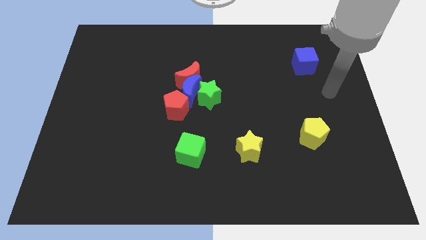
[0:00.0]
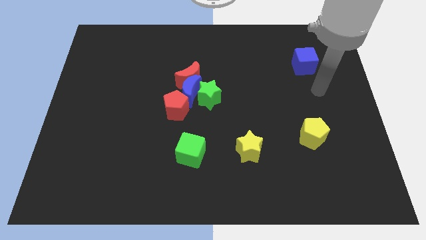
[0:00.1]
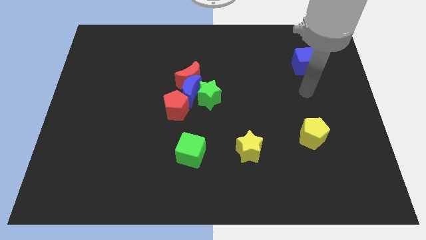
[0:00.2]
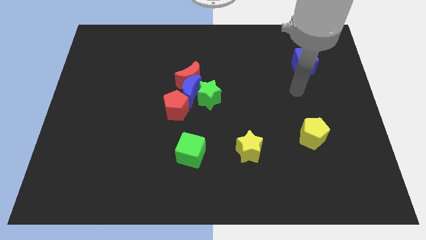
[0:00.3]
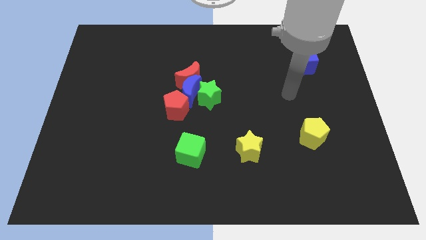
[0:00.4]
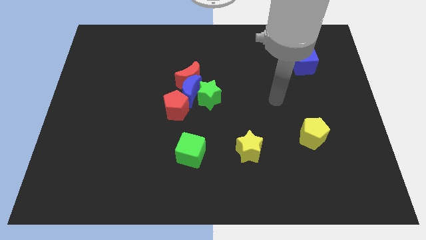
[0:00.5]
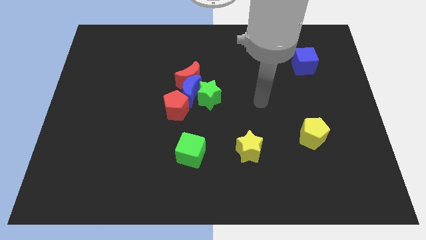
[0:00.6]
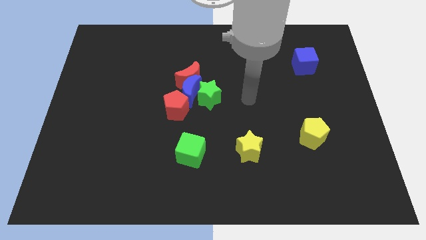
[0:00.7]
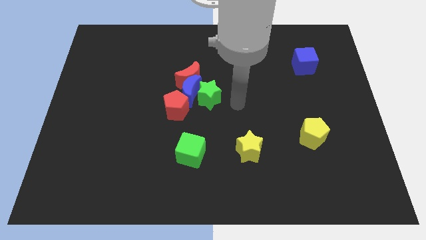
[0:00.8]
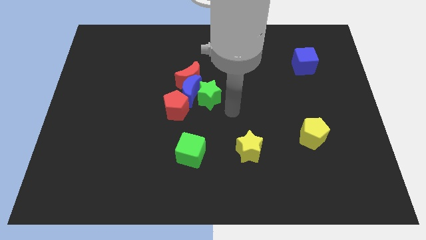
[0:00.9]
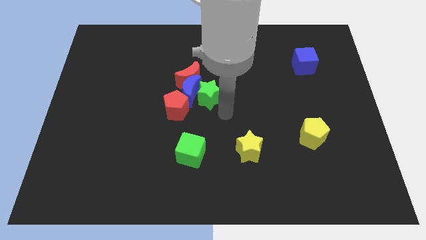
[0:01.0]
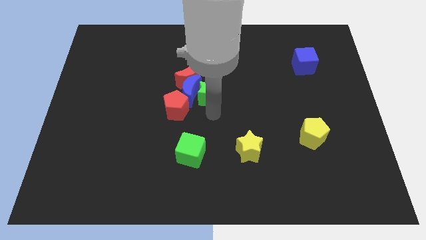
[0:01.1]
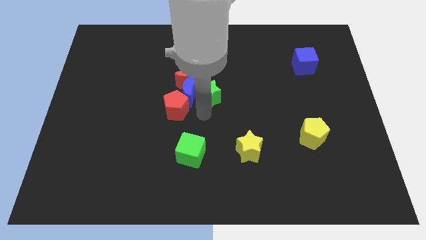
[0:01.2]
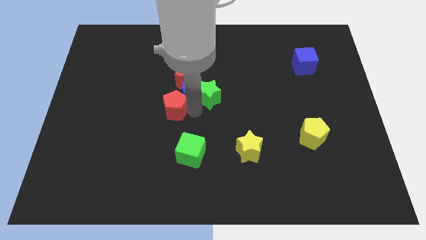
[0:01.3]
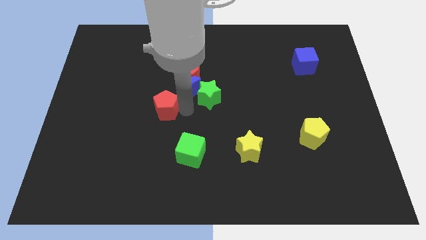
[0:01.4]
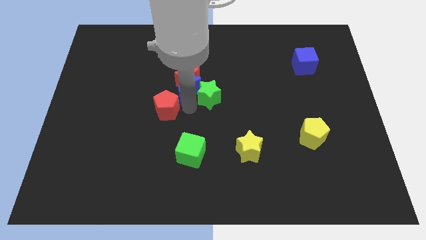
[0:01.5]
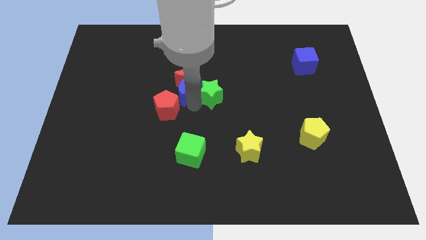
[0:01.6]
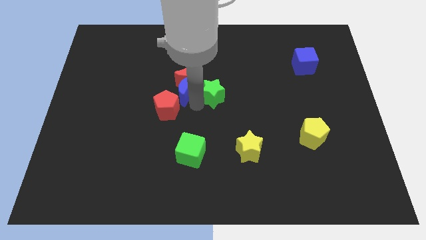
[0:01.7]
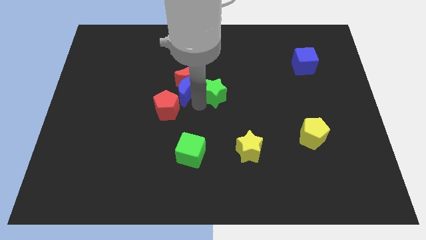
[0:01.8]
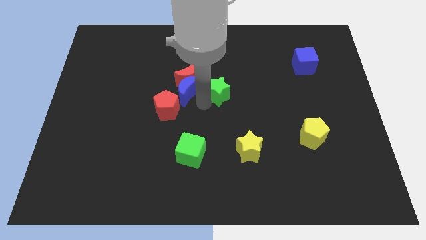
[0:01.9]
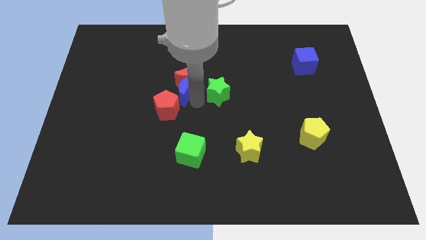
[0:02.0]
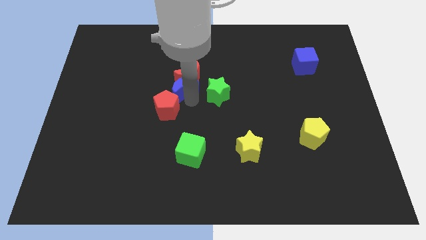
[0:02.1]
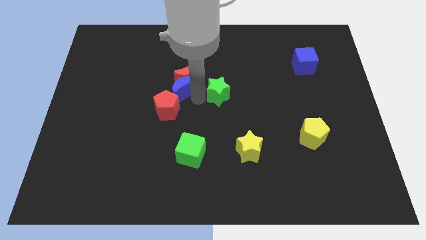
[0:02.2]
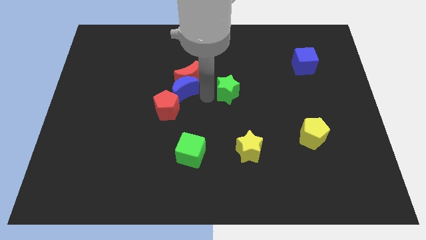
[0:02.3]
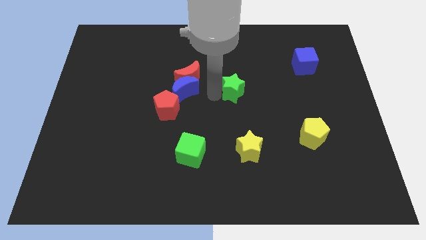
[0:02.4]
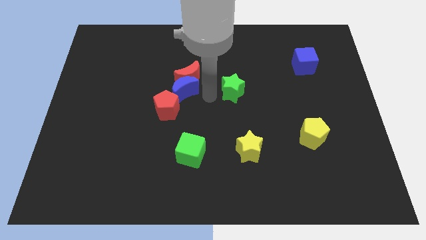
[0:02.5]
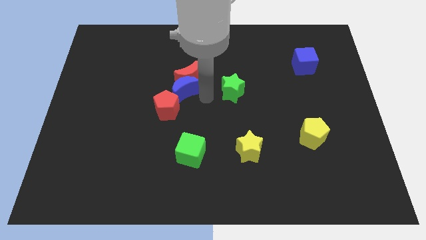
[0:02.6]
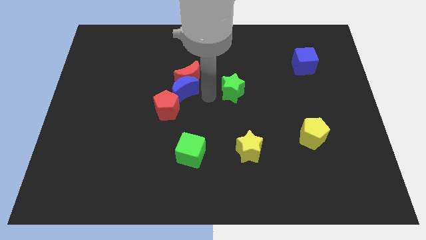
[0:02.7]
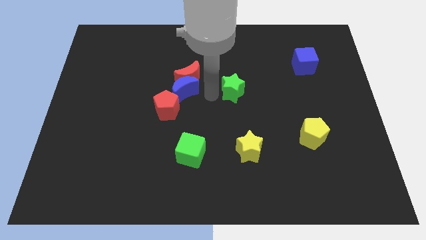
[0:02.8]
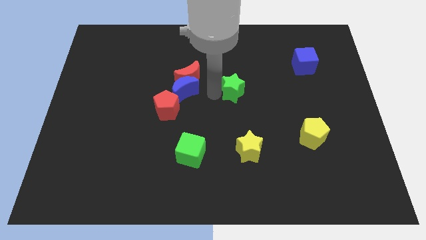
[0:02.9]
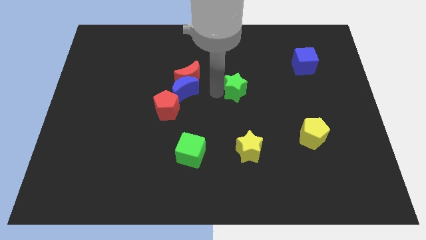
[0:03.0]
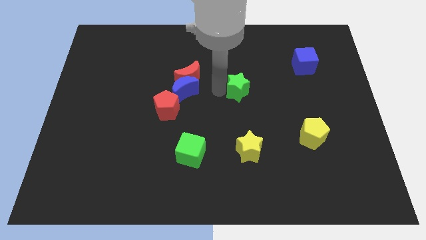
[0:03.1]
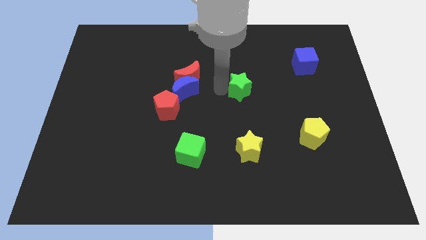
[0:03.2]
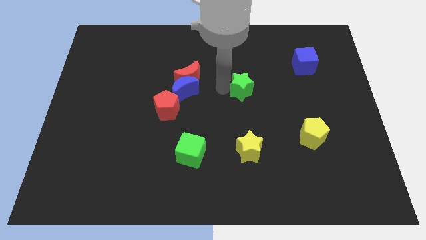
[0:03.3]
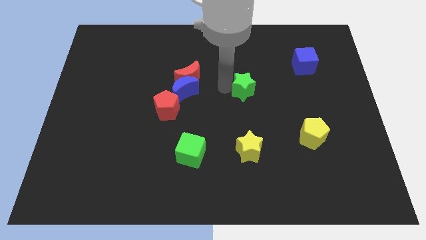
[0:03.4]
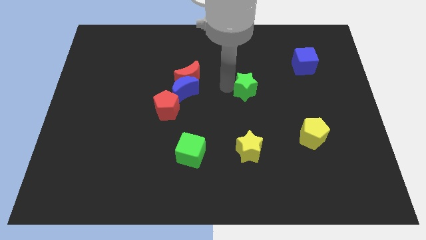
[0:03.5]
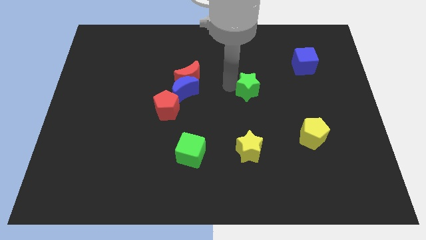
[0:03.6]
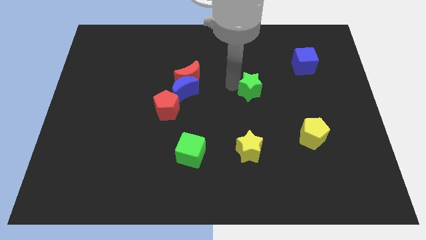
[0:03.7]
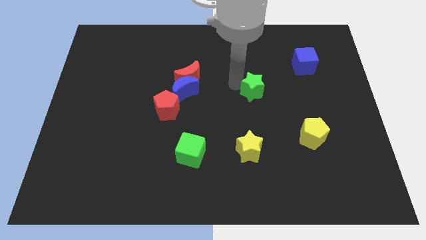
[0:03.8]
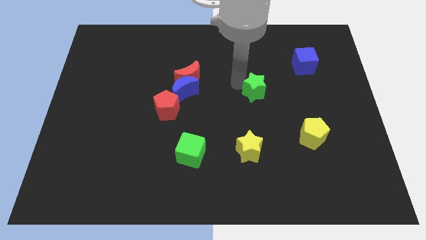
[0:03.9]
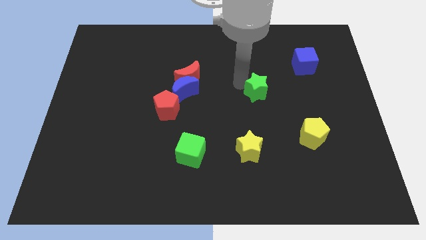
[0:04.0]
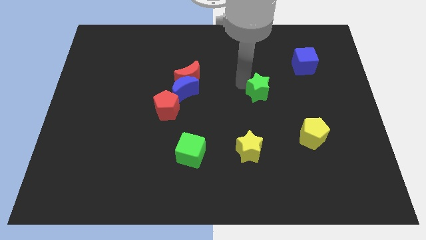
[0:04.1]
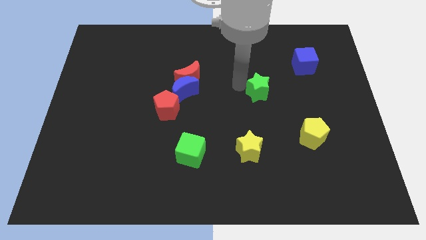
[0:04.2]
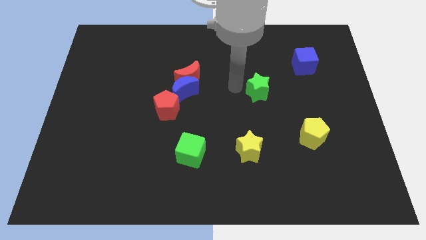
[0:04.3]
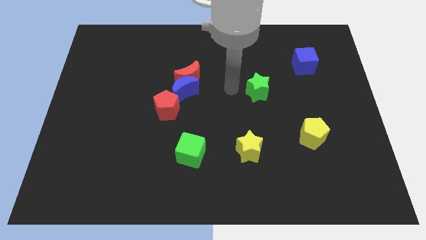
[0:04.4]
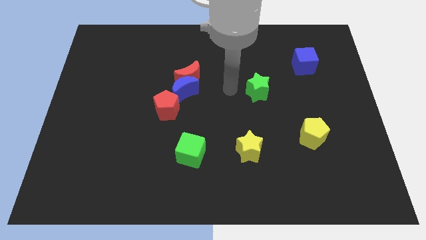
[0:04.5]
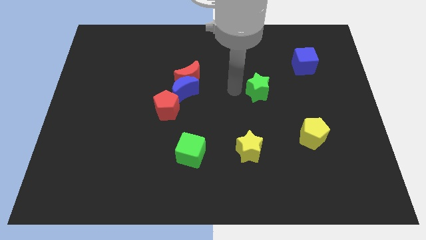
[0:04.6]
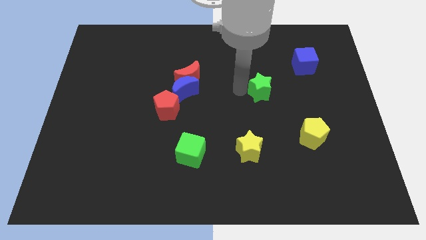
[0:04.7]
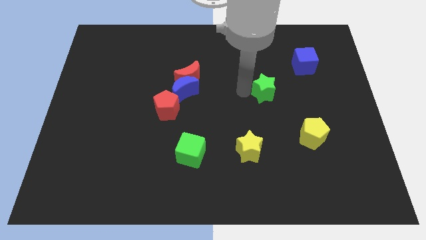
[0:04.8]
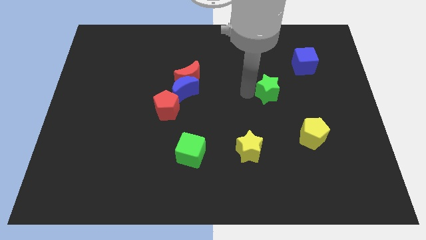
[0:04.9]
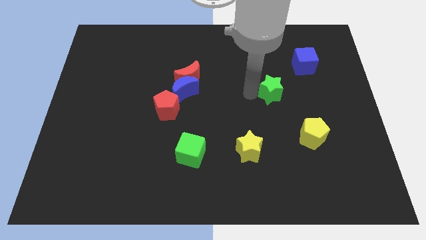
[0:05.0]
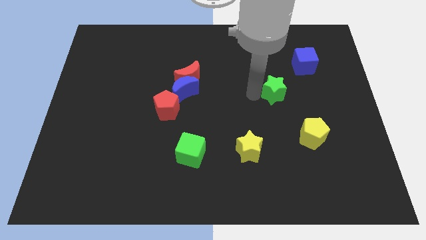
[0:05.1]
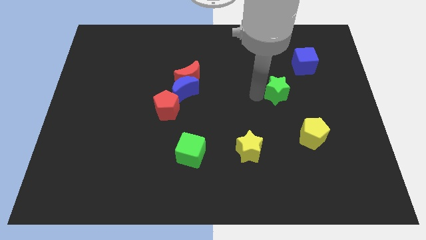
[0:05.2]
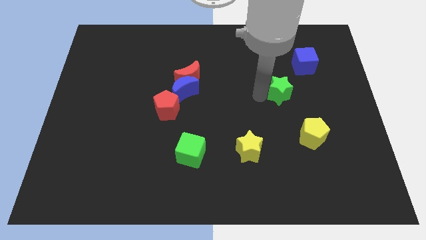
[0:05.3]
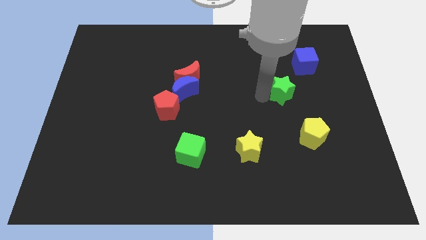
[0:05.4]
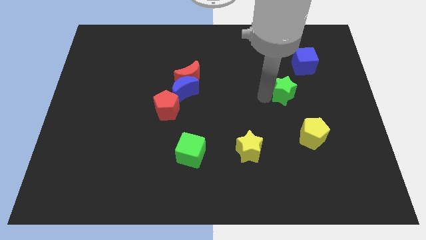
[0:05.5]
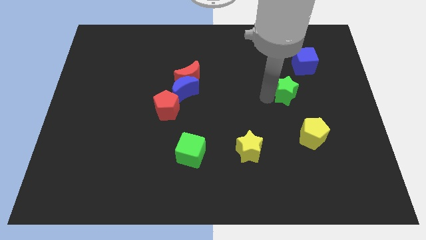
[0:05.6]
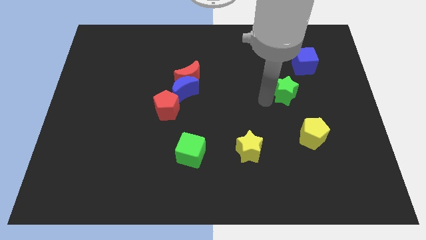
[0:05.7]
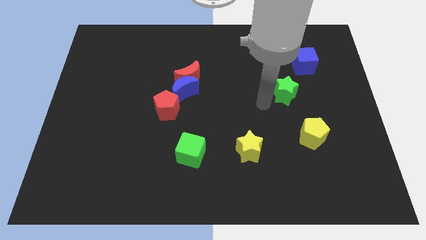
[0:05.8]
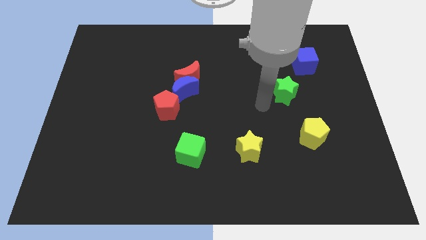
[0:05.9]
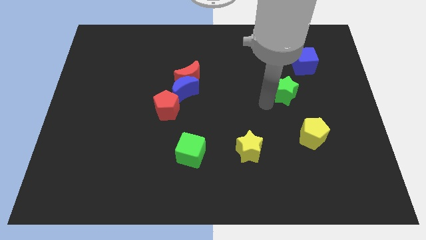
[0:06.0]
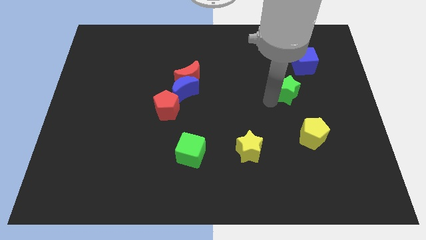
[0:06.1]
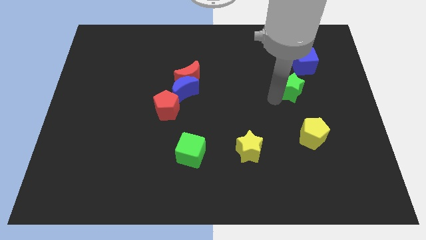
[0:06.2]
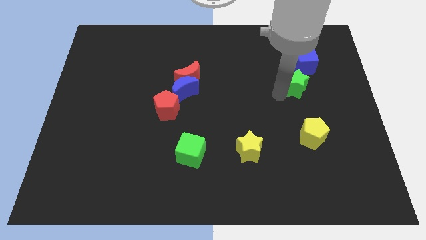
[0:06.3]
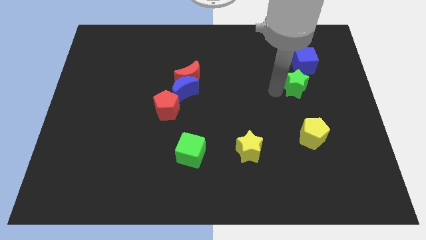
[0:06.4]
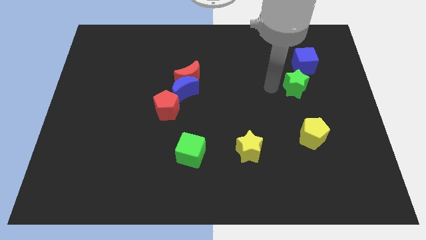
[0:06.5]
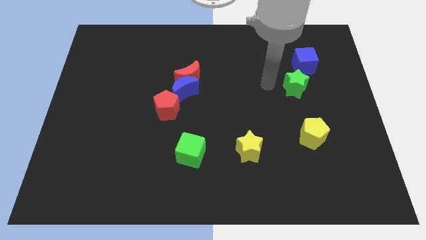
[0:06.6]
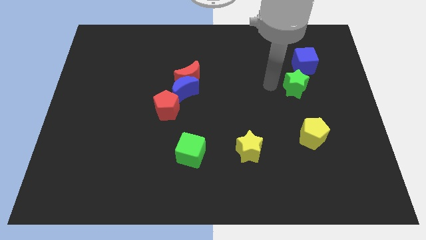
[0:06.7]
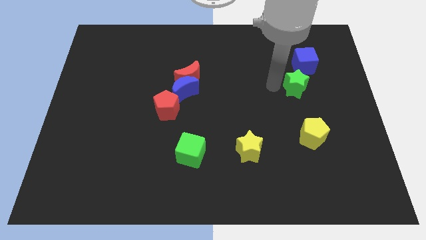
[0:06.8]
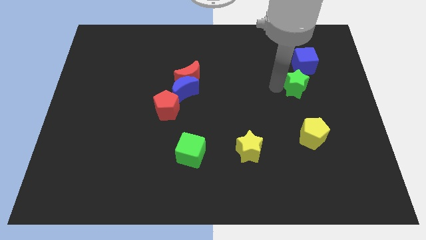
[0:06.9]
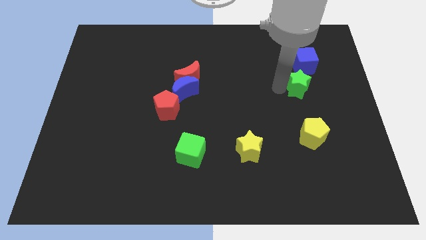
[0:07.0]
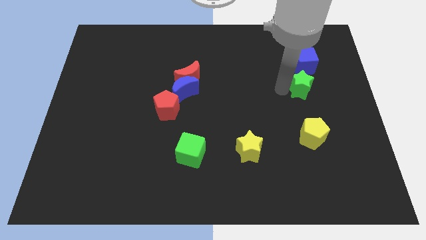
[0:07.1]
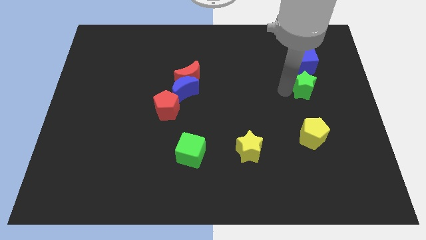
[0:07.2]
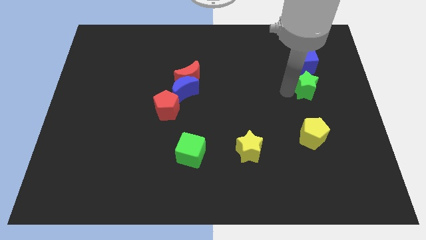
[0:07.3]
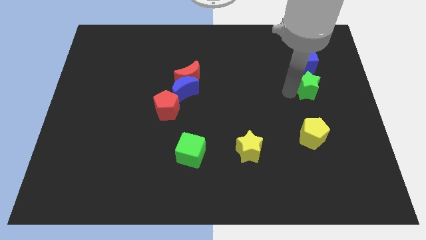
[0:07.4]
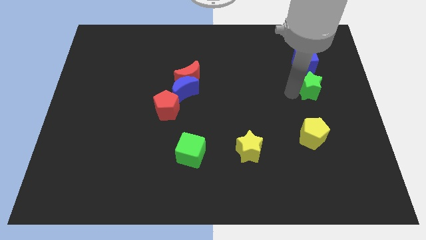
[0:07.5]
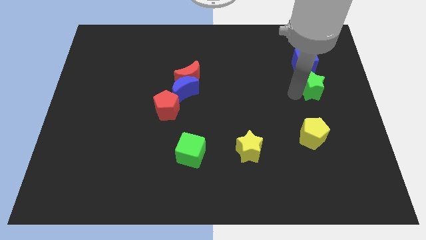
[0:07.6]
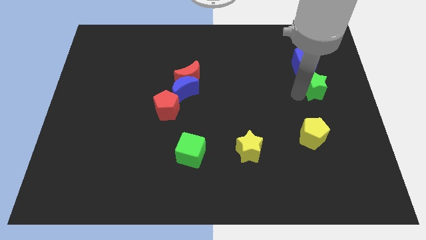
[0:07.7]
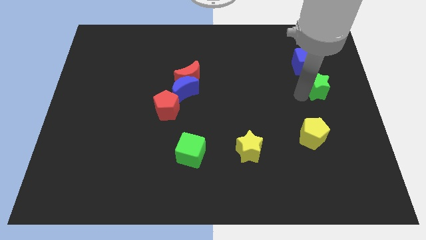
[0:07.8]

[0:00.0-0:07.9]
put the green star to the center right
